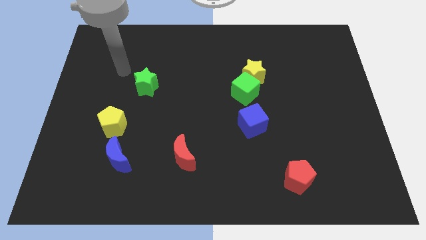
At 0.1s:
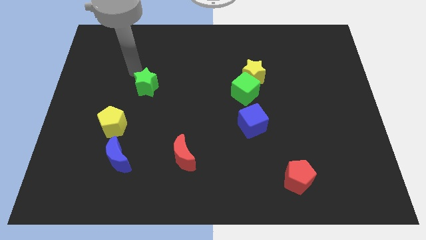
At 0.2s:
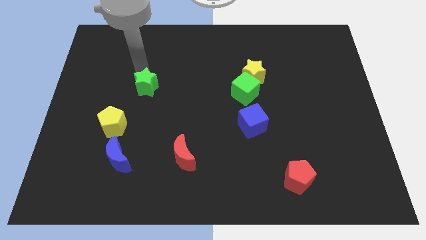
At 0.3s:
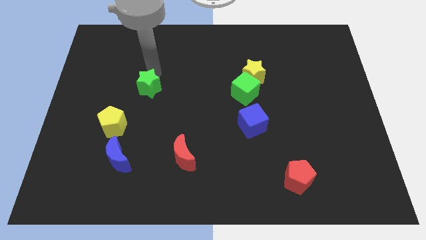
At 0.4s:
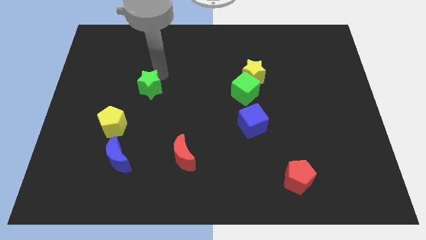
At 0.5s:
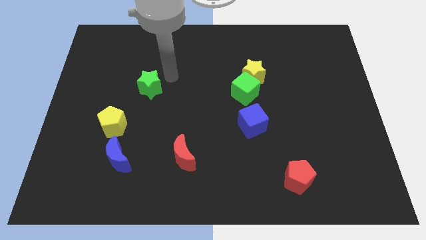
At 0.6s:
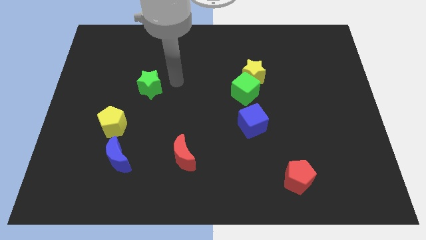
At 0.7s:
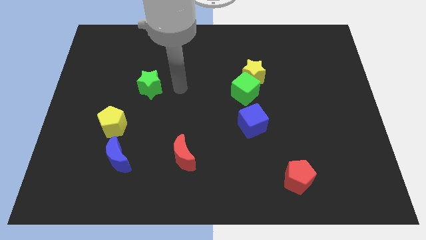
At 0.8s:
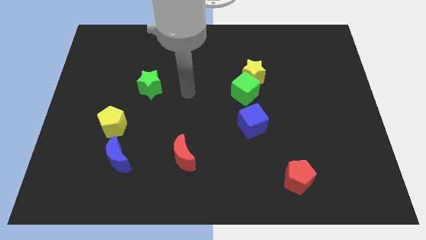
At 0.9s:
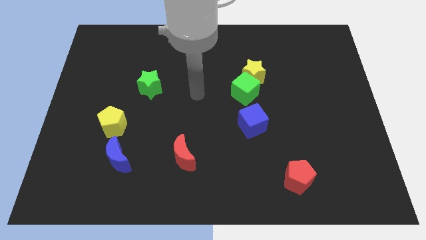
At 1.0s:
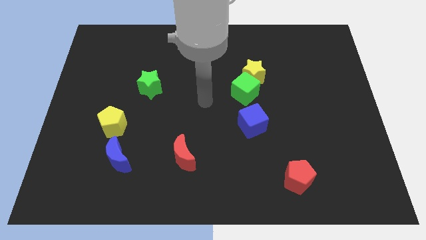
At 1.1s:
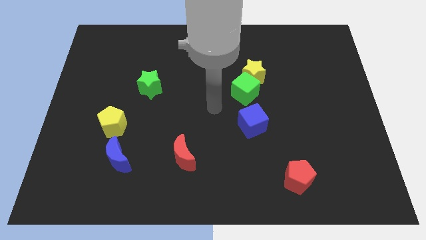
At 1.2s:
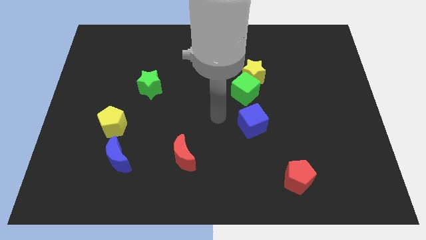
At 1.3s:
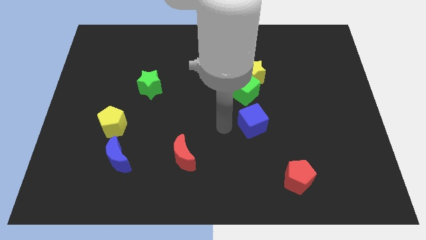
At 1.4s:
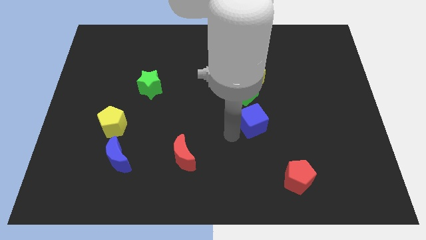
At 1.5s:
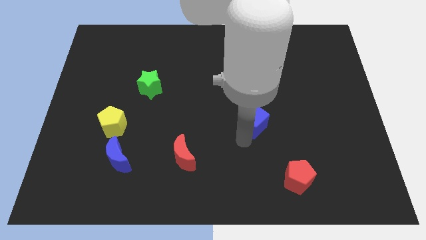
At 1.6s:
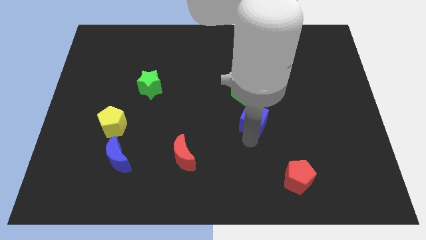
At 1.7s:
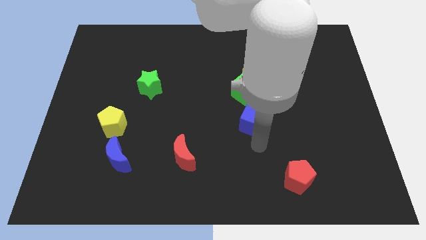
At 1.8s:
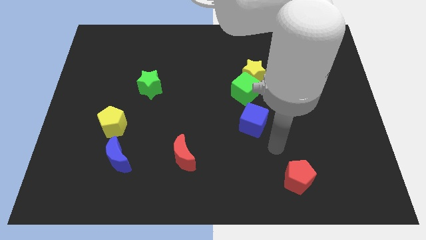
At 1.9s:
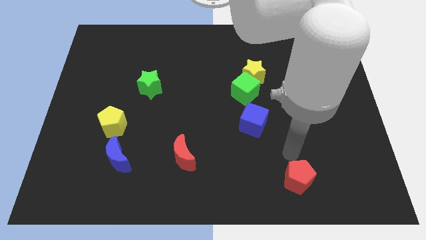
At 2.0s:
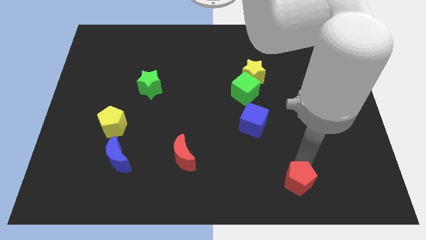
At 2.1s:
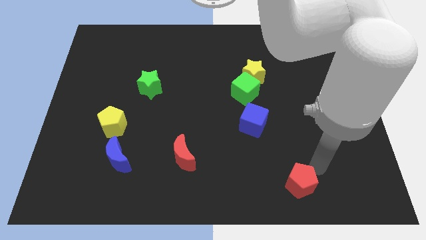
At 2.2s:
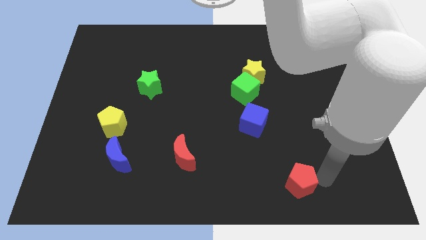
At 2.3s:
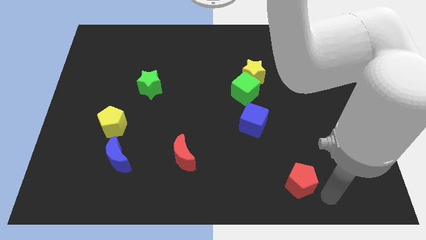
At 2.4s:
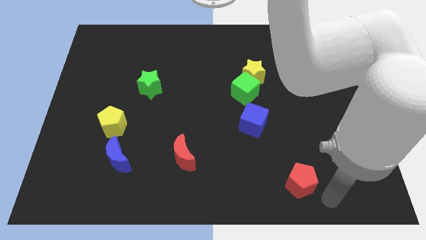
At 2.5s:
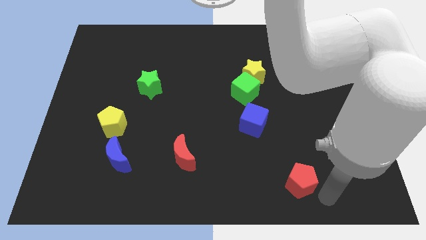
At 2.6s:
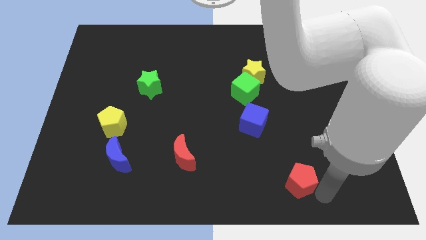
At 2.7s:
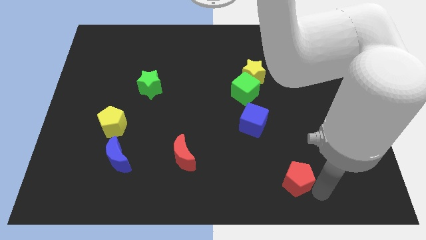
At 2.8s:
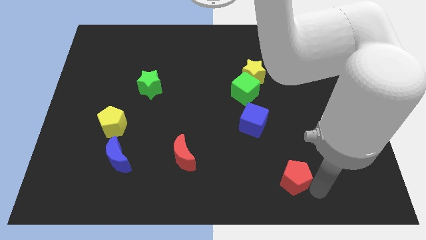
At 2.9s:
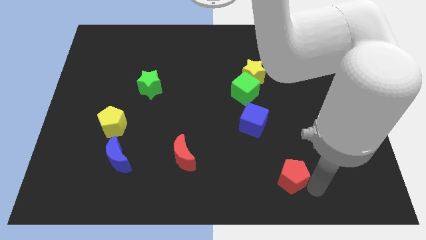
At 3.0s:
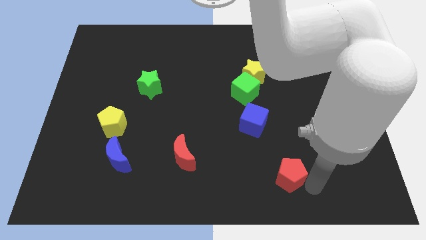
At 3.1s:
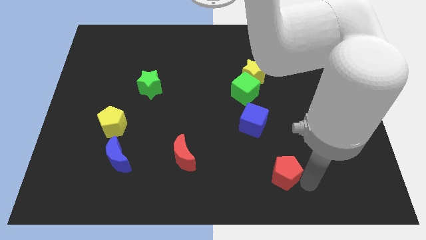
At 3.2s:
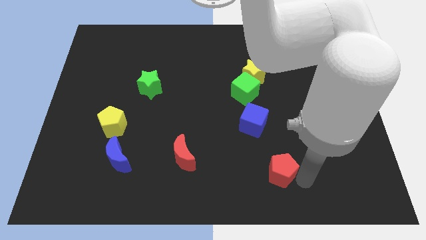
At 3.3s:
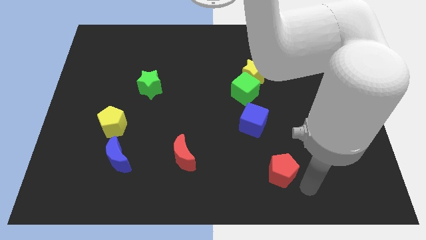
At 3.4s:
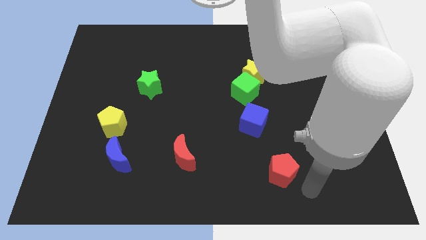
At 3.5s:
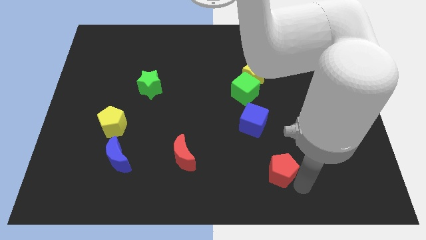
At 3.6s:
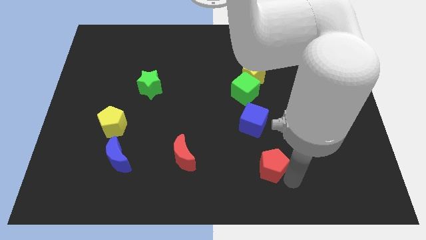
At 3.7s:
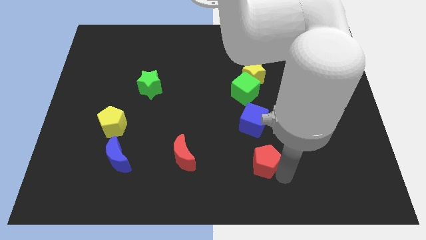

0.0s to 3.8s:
slightly move the red pentagon upwards and to the left

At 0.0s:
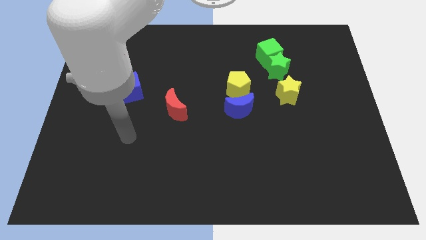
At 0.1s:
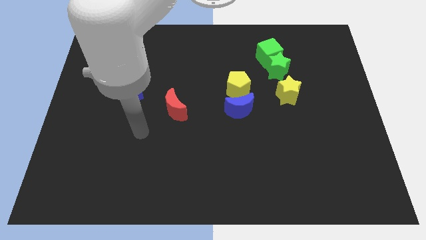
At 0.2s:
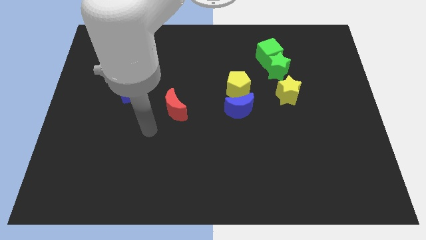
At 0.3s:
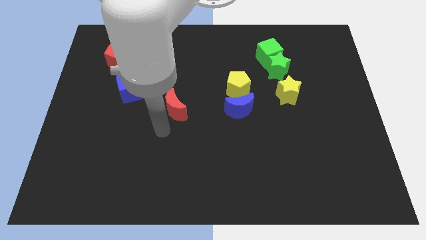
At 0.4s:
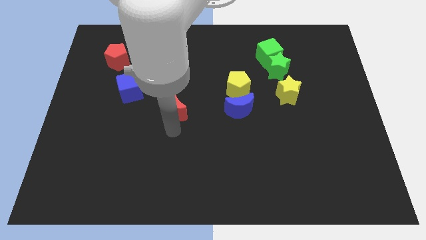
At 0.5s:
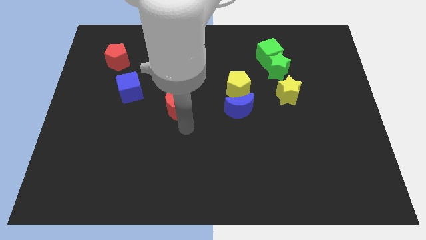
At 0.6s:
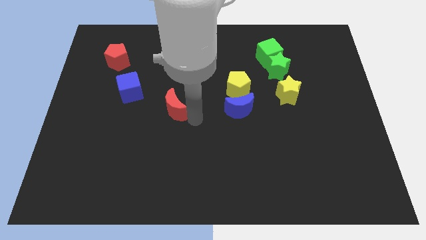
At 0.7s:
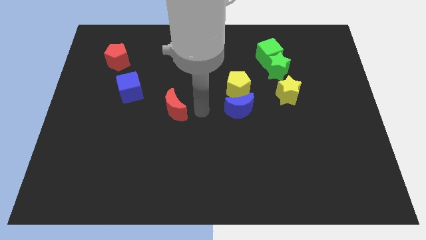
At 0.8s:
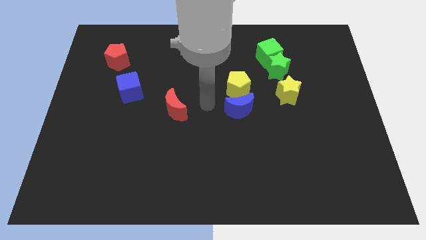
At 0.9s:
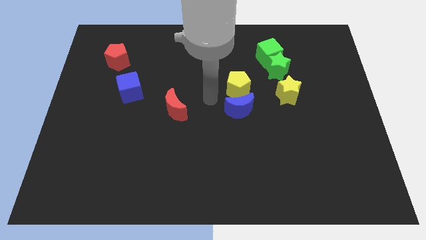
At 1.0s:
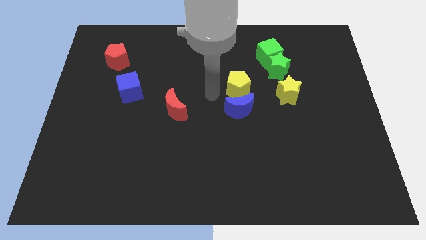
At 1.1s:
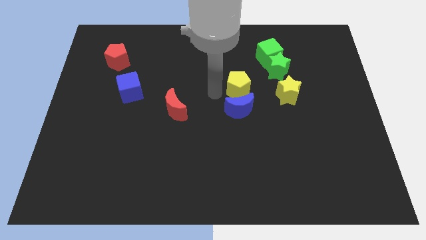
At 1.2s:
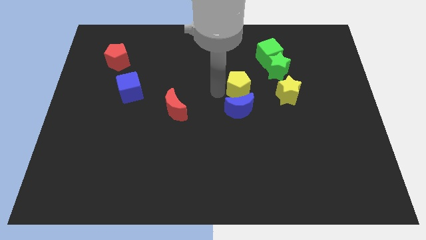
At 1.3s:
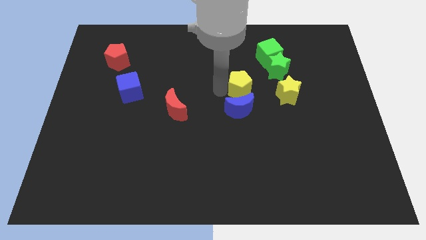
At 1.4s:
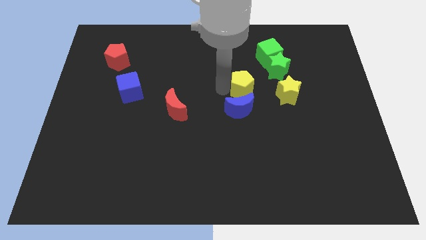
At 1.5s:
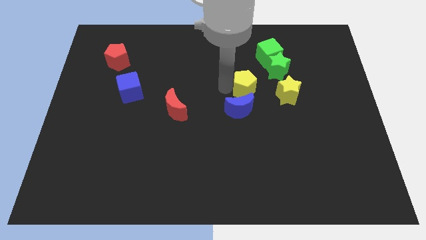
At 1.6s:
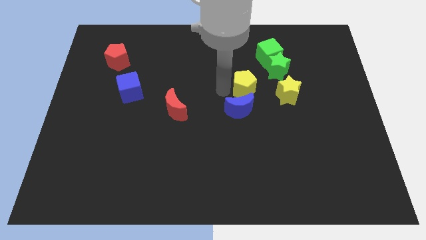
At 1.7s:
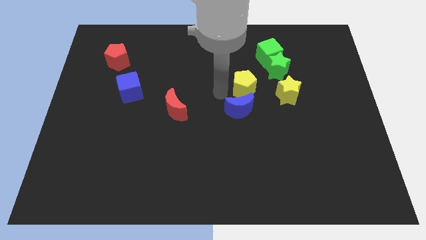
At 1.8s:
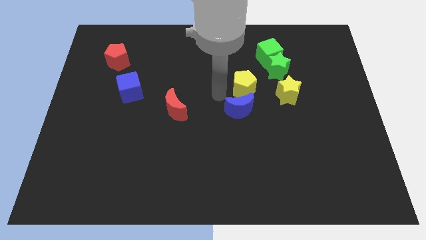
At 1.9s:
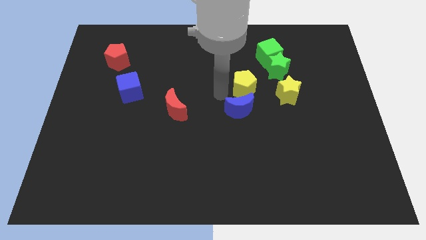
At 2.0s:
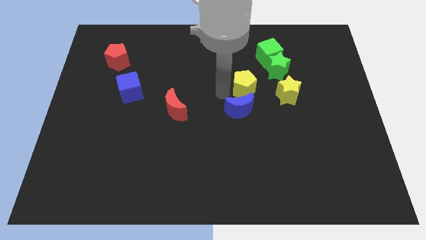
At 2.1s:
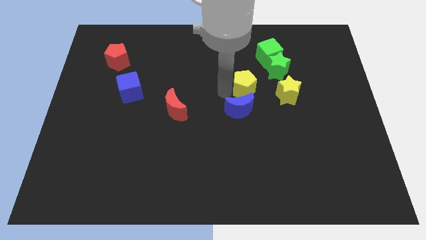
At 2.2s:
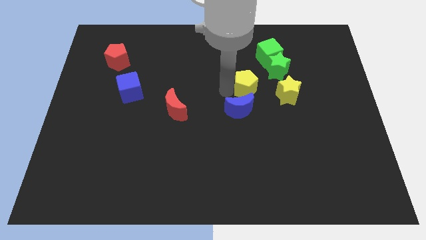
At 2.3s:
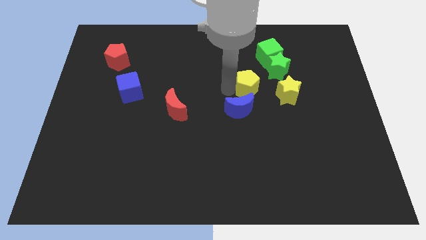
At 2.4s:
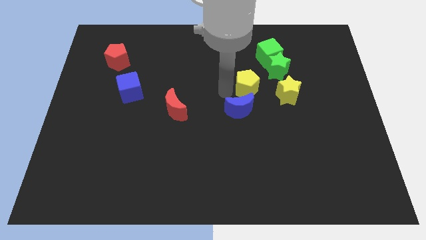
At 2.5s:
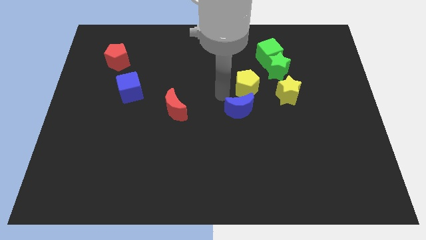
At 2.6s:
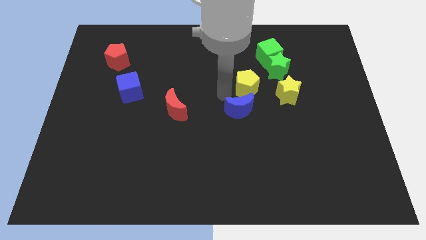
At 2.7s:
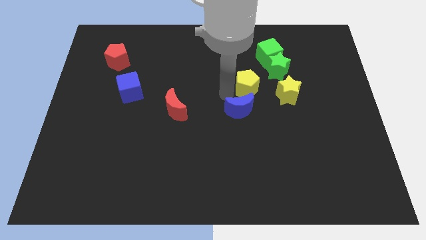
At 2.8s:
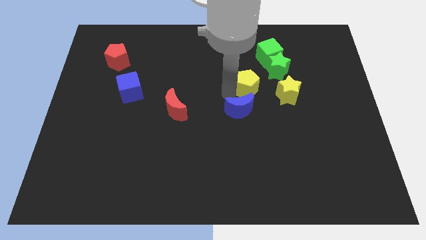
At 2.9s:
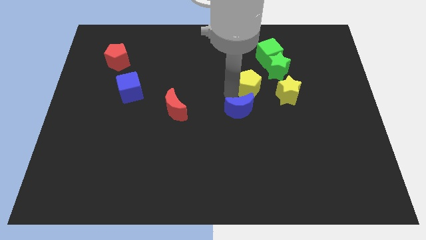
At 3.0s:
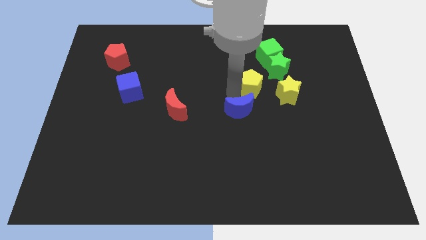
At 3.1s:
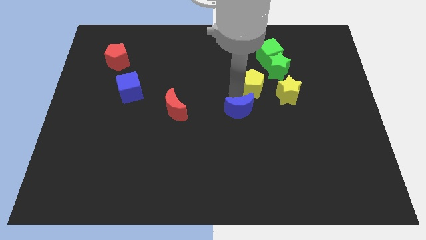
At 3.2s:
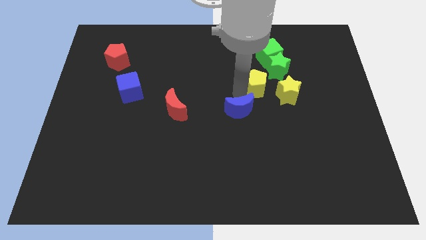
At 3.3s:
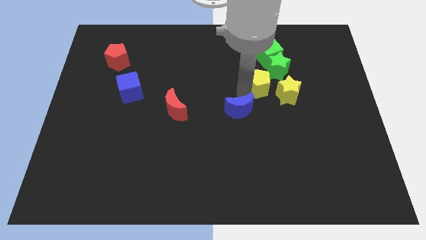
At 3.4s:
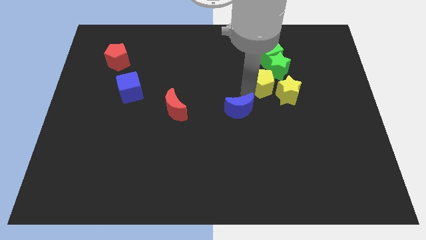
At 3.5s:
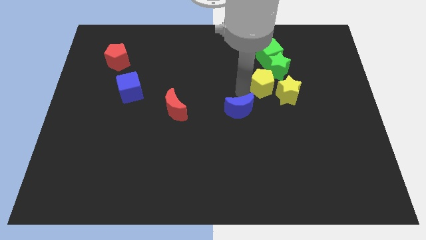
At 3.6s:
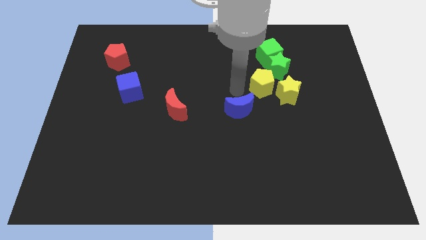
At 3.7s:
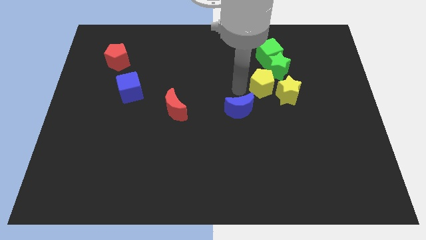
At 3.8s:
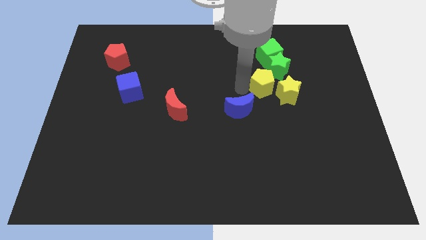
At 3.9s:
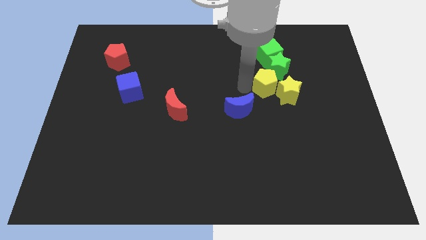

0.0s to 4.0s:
push the yellow pentagon right slightly

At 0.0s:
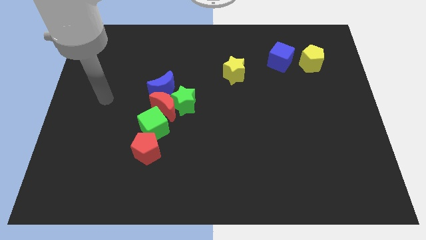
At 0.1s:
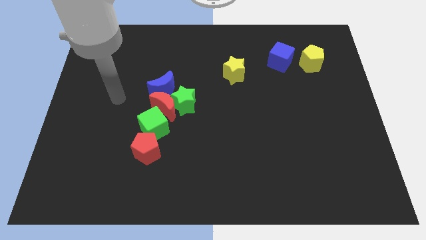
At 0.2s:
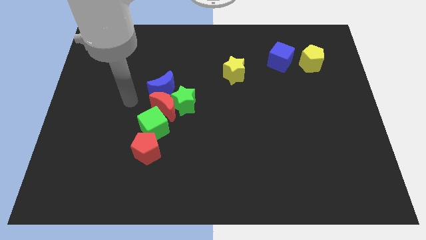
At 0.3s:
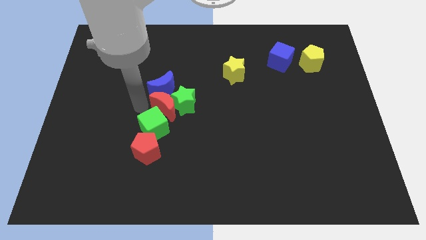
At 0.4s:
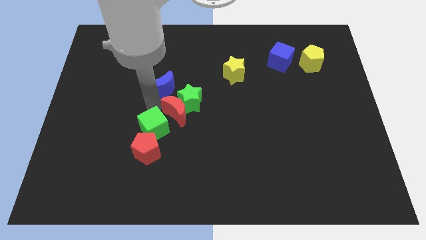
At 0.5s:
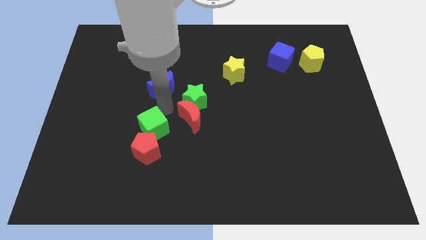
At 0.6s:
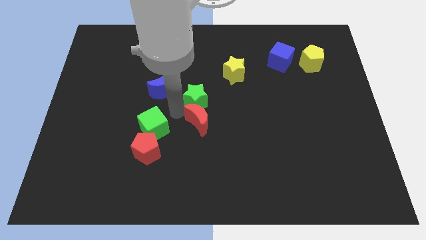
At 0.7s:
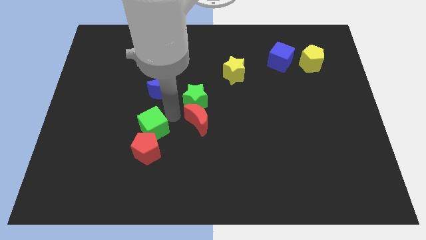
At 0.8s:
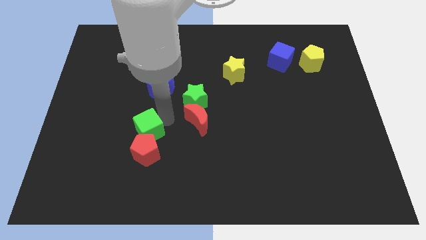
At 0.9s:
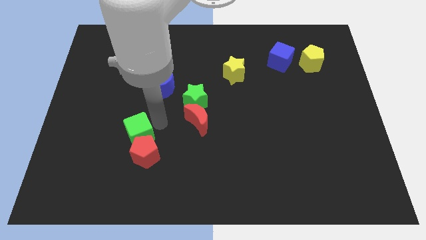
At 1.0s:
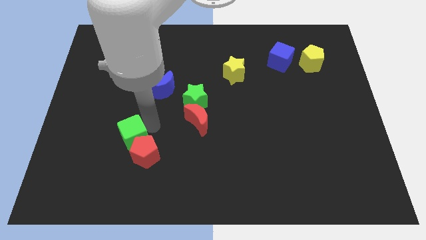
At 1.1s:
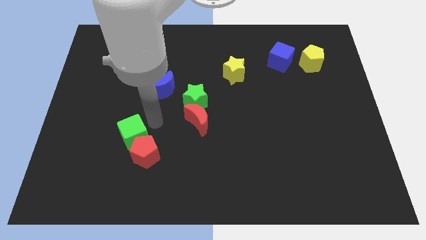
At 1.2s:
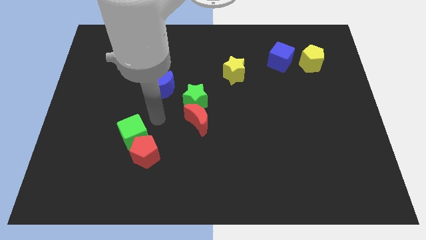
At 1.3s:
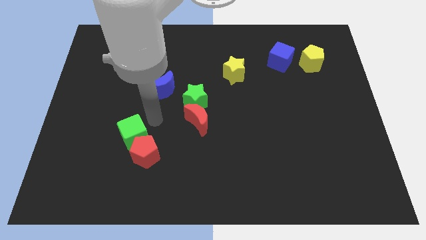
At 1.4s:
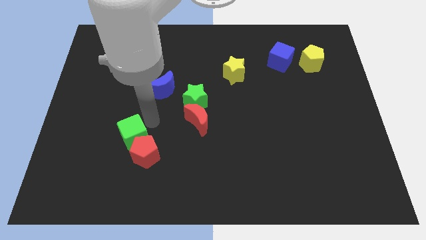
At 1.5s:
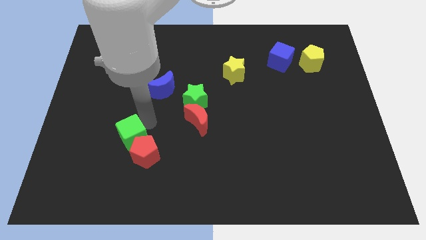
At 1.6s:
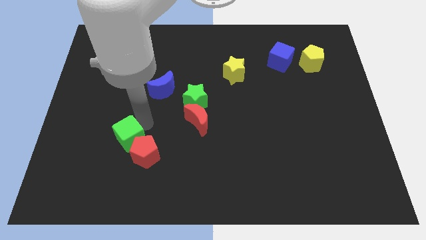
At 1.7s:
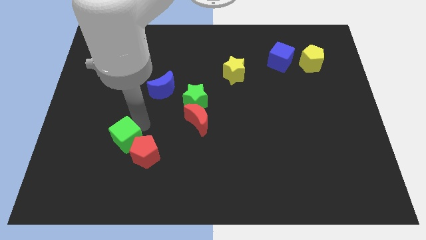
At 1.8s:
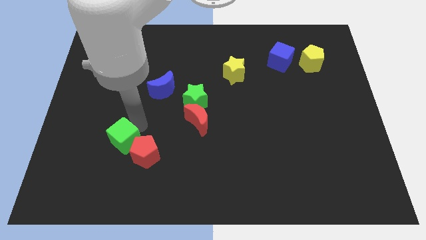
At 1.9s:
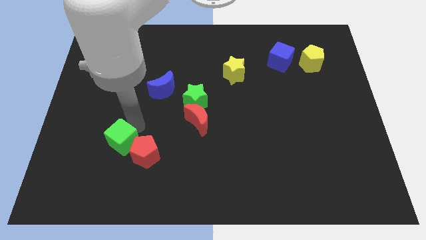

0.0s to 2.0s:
slightly move the green cube down and then left
